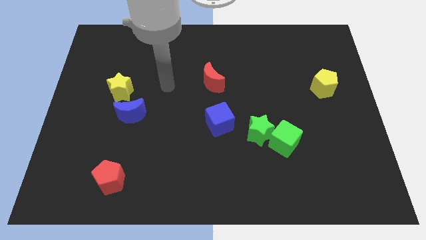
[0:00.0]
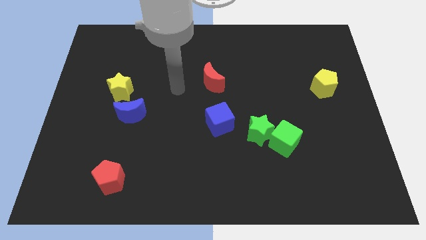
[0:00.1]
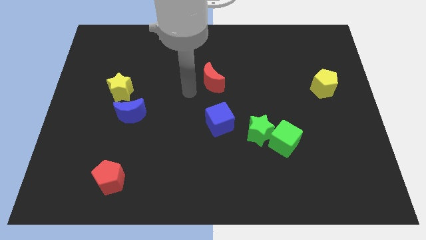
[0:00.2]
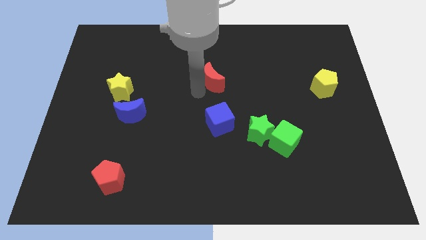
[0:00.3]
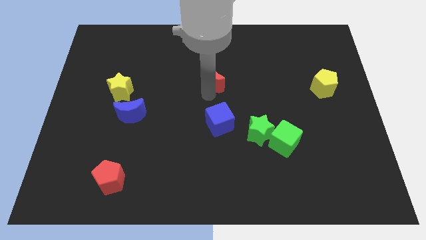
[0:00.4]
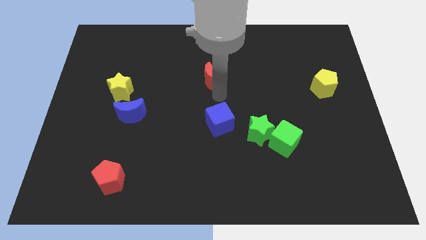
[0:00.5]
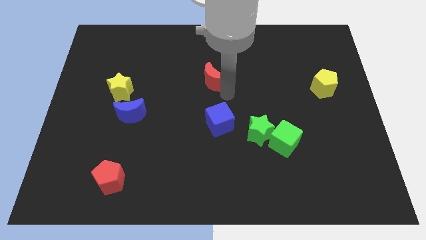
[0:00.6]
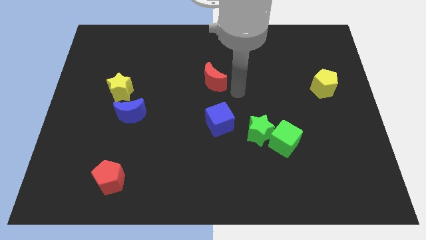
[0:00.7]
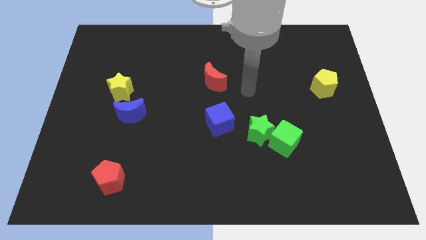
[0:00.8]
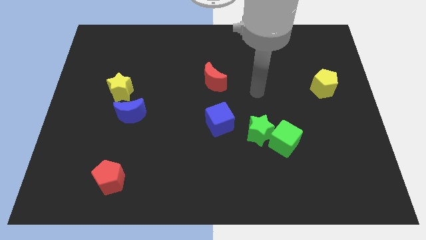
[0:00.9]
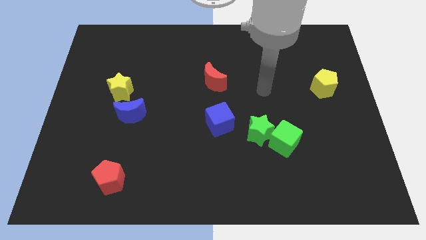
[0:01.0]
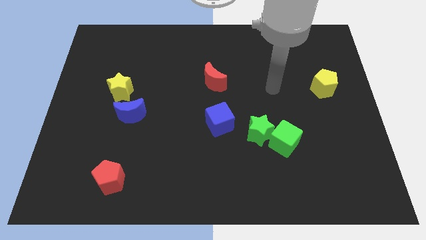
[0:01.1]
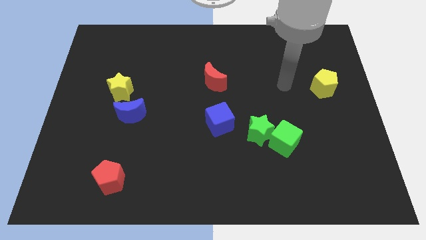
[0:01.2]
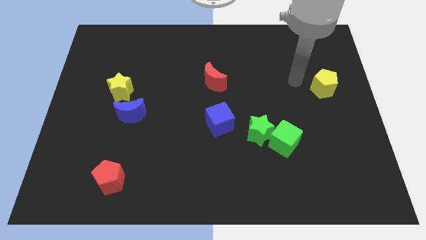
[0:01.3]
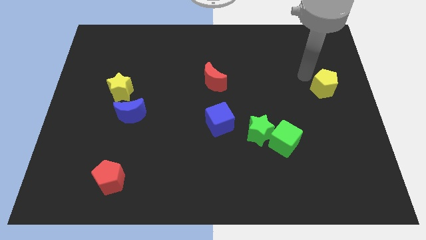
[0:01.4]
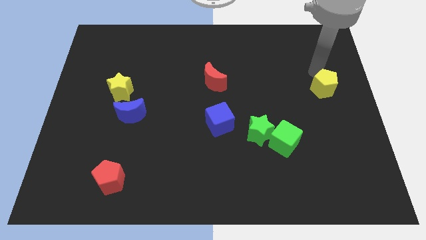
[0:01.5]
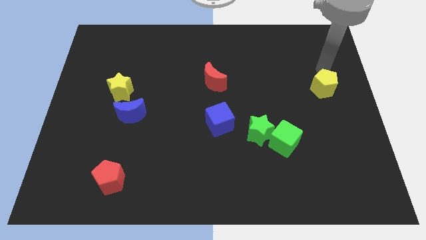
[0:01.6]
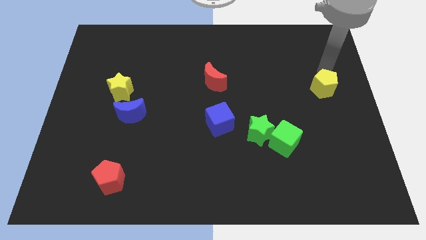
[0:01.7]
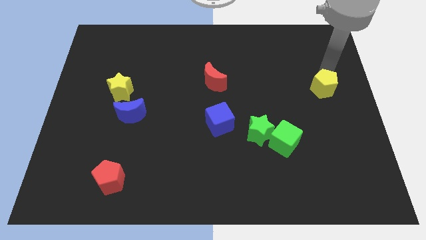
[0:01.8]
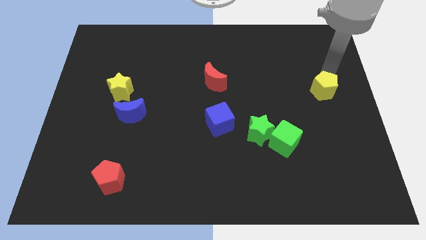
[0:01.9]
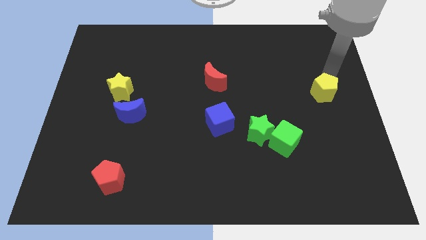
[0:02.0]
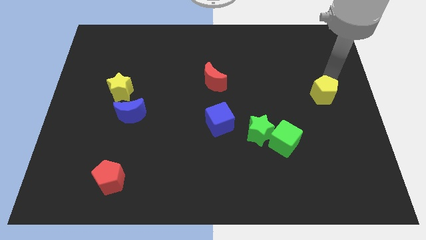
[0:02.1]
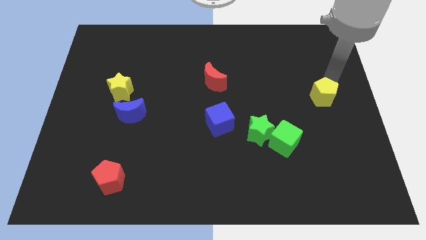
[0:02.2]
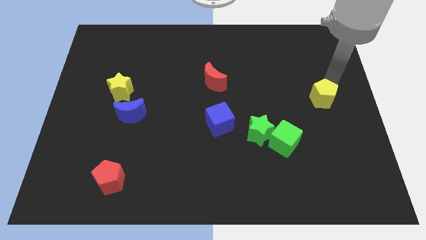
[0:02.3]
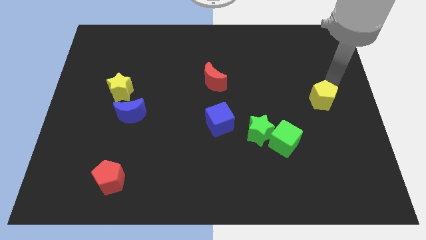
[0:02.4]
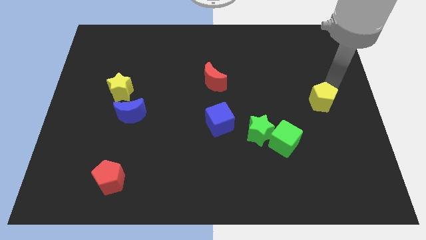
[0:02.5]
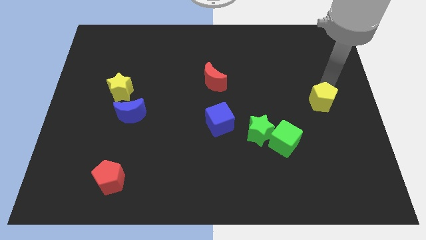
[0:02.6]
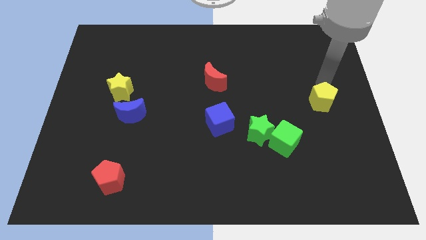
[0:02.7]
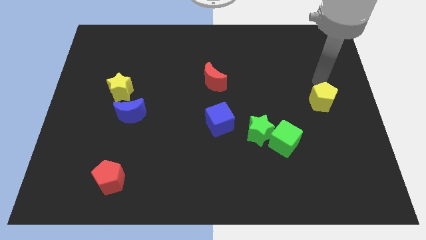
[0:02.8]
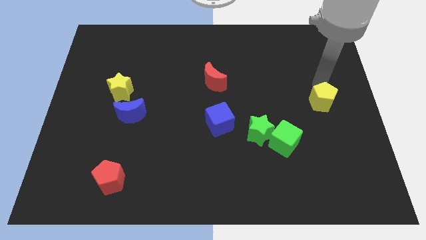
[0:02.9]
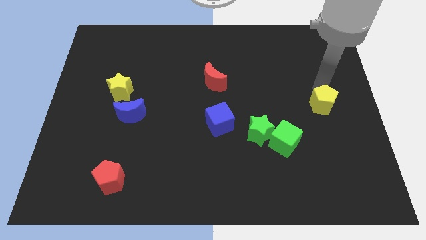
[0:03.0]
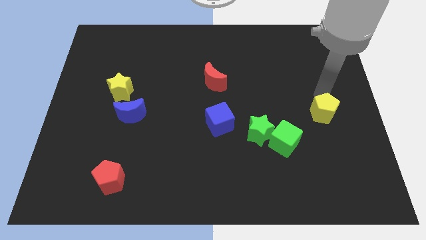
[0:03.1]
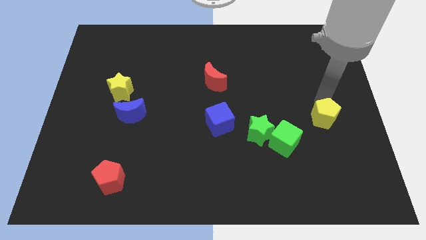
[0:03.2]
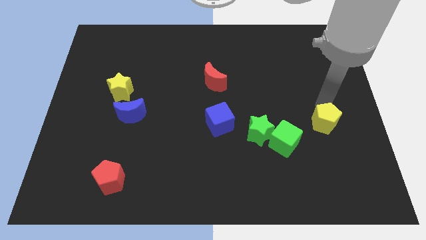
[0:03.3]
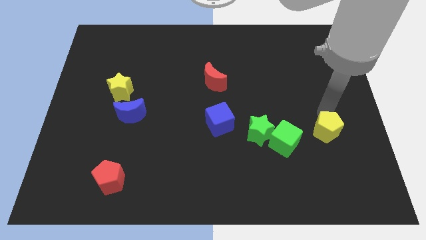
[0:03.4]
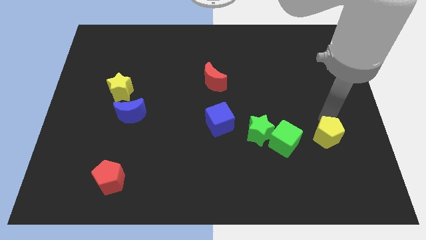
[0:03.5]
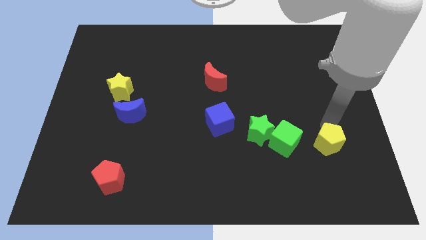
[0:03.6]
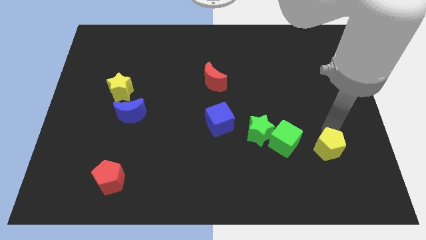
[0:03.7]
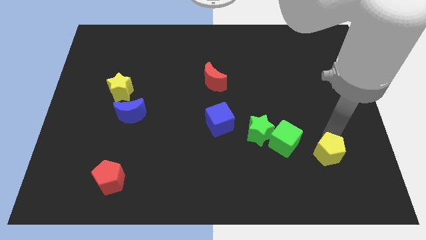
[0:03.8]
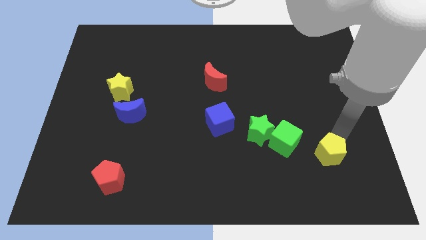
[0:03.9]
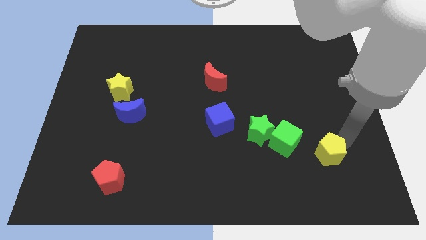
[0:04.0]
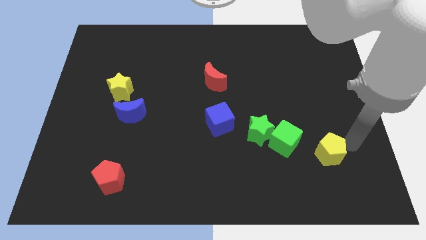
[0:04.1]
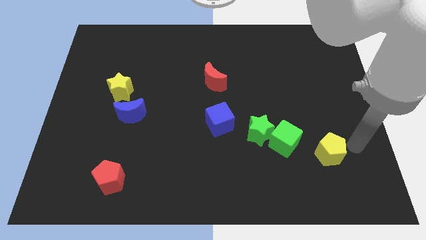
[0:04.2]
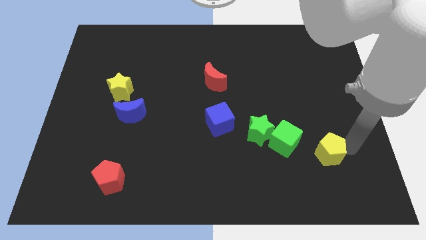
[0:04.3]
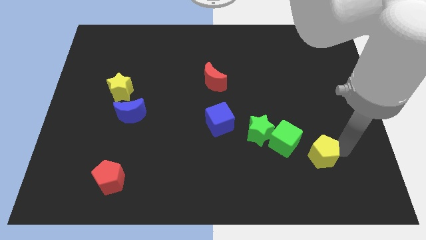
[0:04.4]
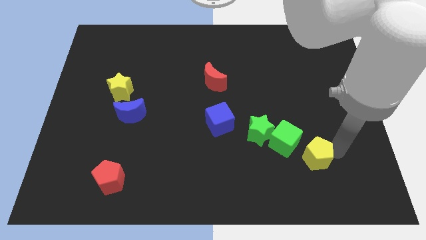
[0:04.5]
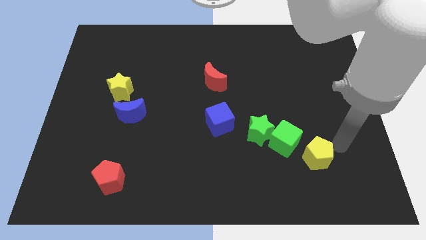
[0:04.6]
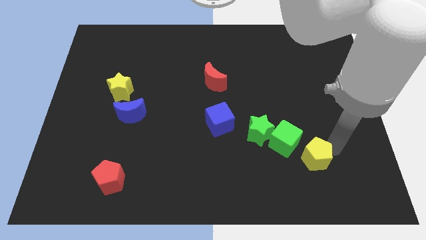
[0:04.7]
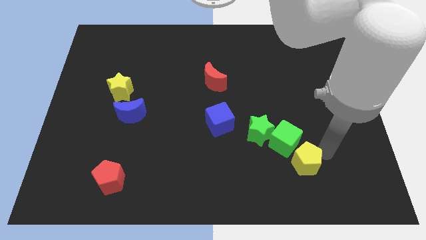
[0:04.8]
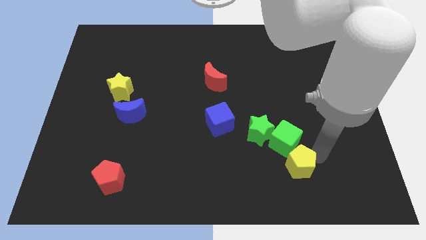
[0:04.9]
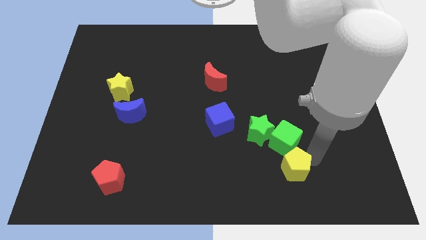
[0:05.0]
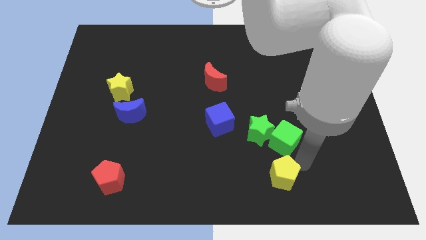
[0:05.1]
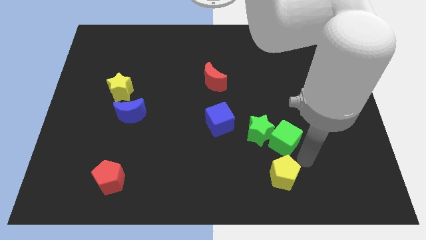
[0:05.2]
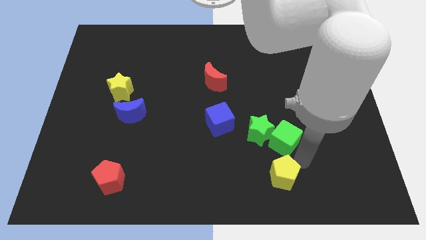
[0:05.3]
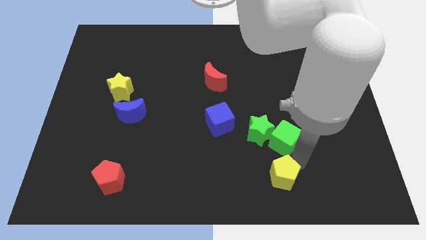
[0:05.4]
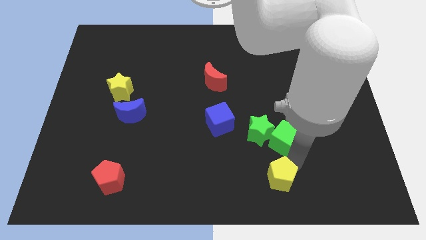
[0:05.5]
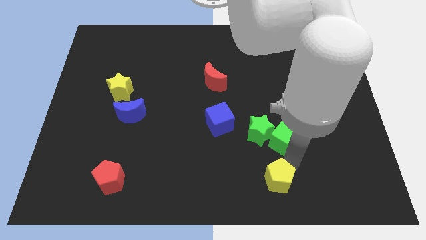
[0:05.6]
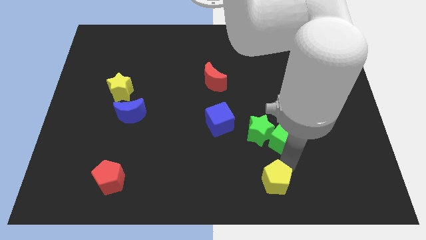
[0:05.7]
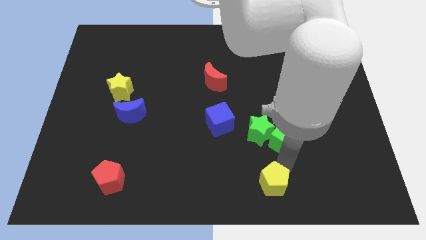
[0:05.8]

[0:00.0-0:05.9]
slide the yellow pentagon to the bottom side

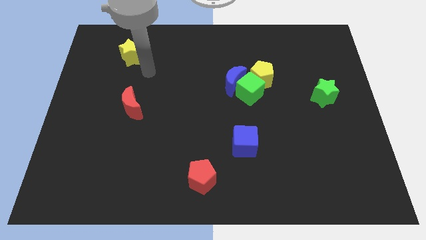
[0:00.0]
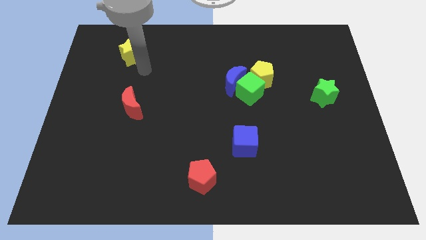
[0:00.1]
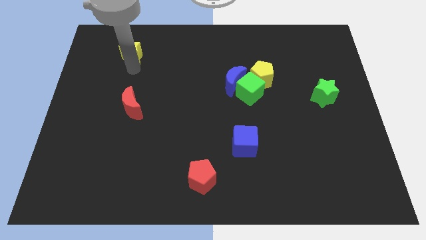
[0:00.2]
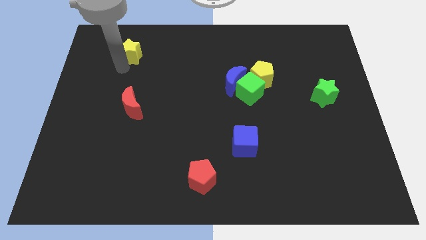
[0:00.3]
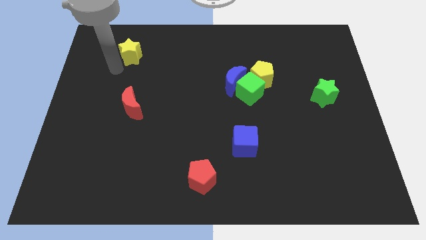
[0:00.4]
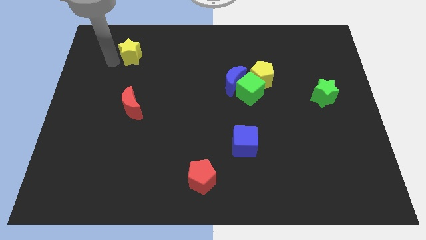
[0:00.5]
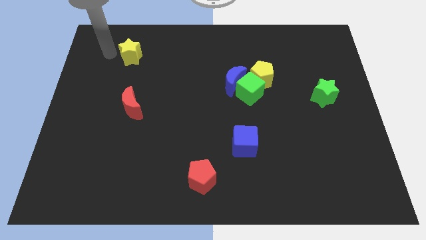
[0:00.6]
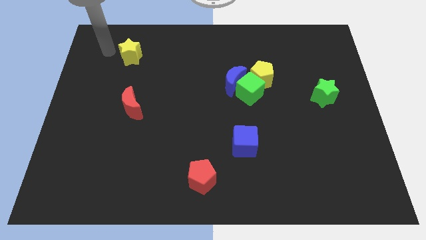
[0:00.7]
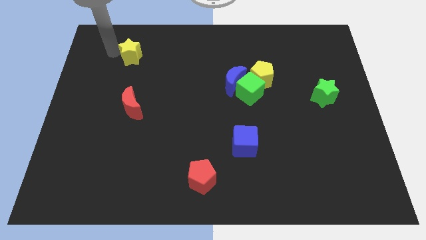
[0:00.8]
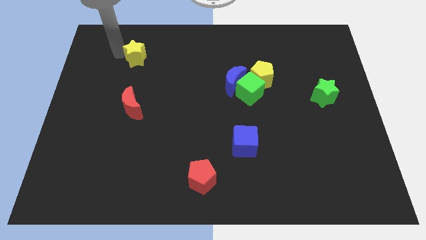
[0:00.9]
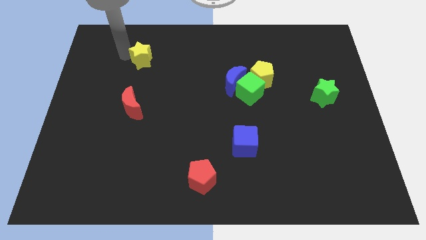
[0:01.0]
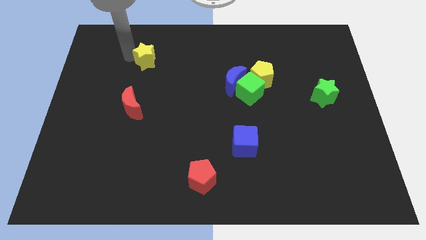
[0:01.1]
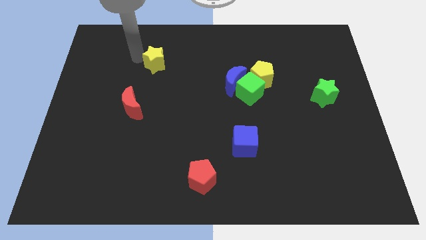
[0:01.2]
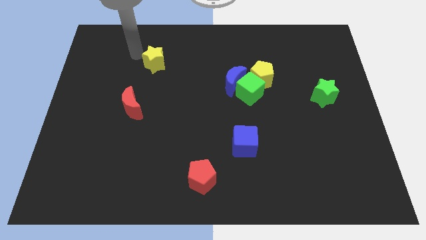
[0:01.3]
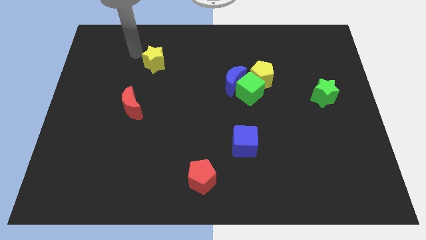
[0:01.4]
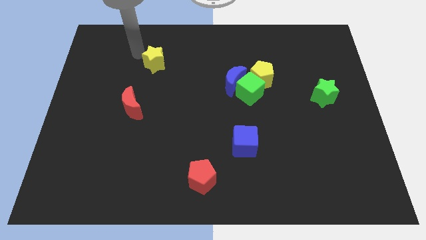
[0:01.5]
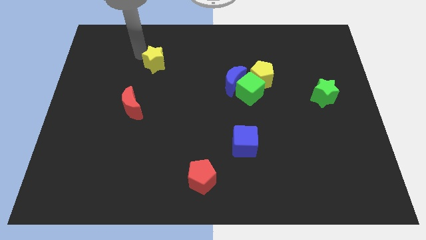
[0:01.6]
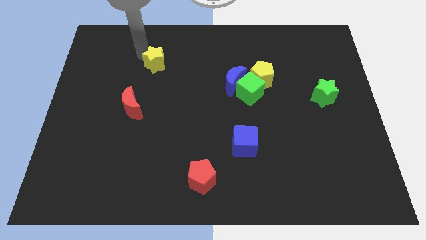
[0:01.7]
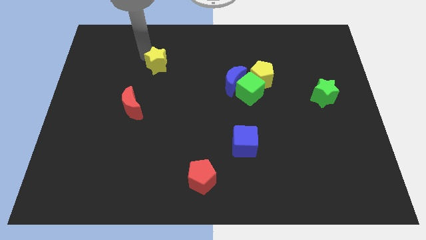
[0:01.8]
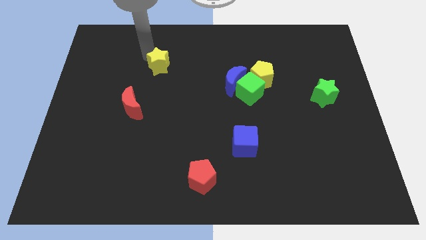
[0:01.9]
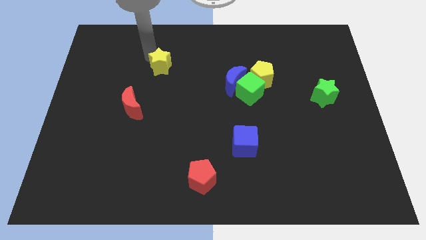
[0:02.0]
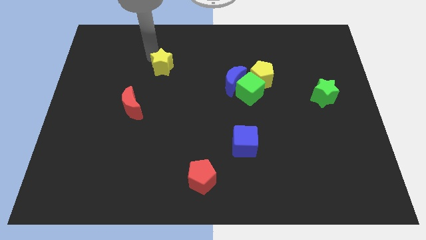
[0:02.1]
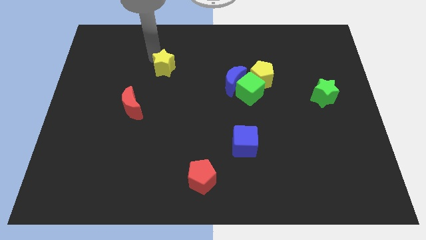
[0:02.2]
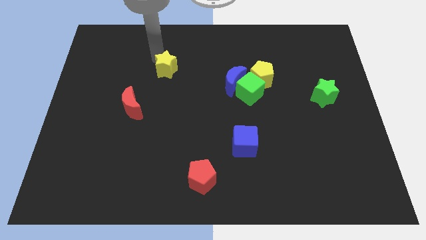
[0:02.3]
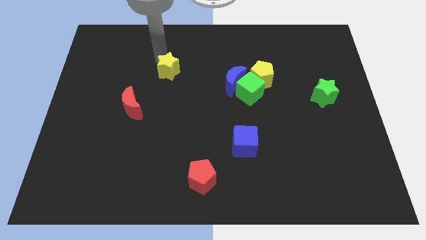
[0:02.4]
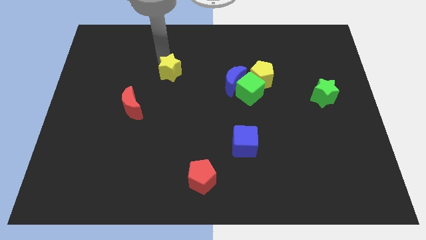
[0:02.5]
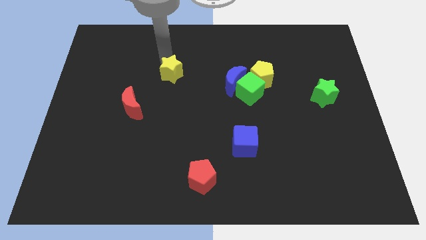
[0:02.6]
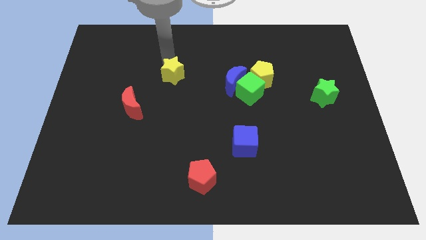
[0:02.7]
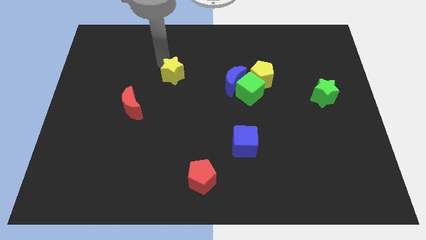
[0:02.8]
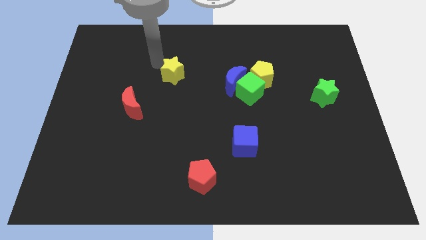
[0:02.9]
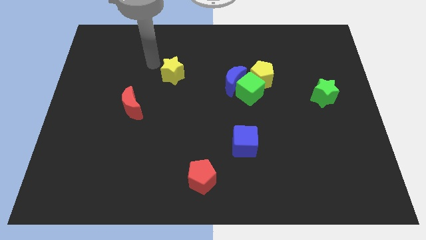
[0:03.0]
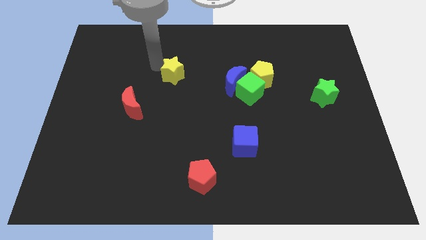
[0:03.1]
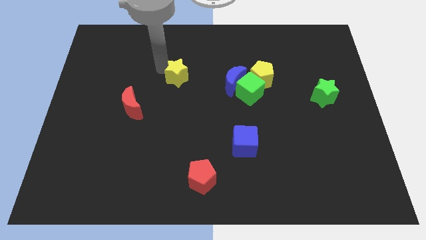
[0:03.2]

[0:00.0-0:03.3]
push the yellow star to the middle of the board
